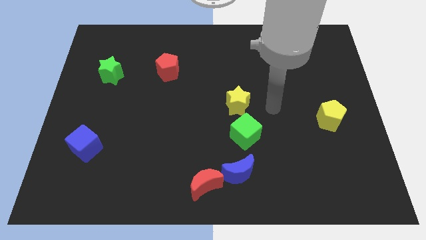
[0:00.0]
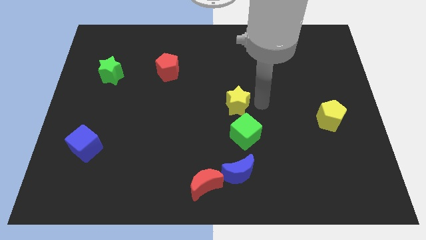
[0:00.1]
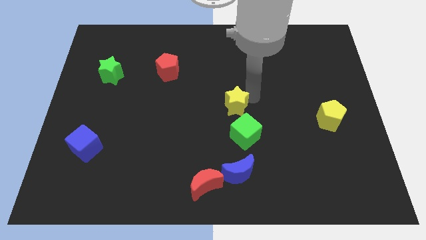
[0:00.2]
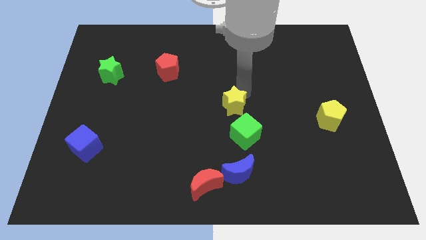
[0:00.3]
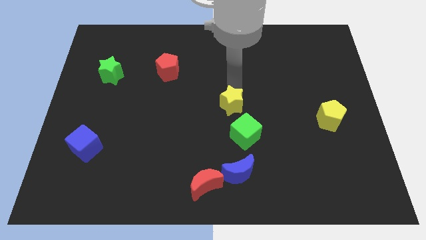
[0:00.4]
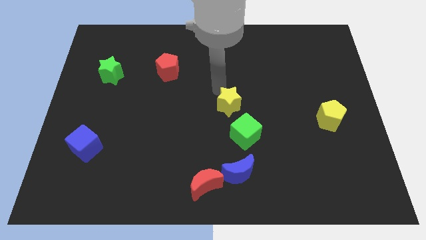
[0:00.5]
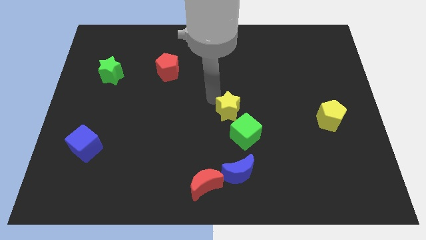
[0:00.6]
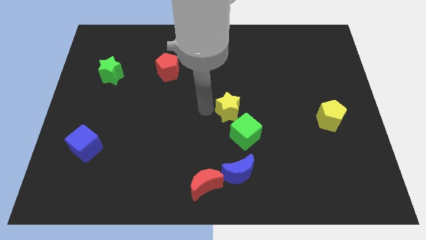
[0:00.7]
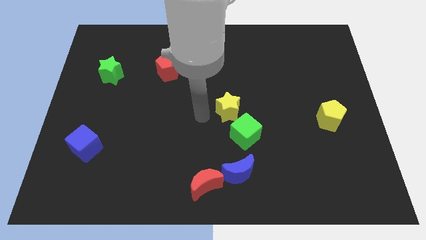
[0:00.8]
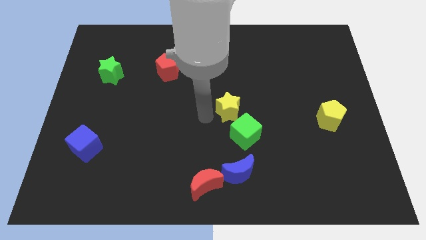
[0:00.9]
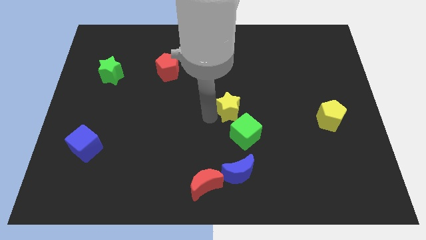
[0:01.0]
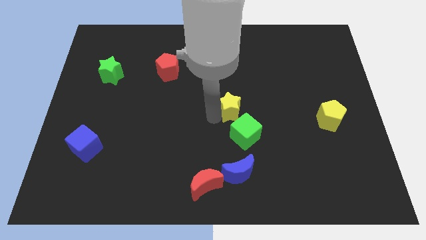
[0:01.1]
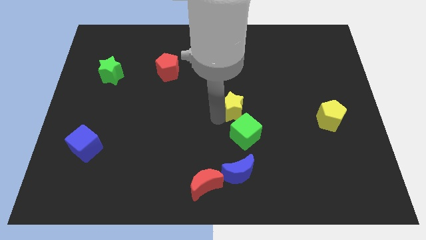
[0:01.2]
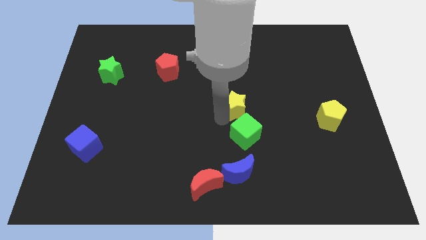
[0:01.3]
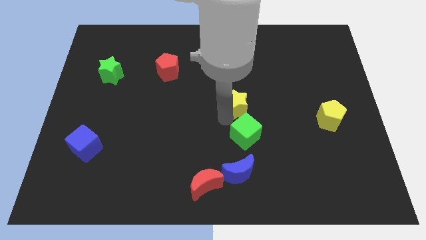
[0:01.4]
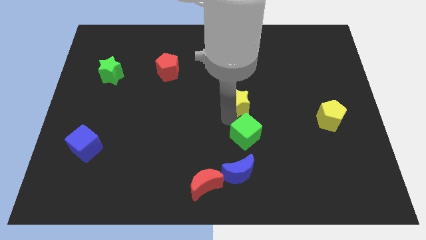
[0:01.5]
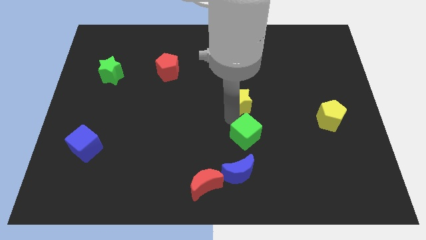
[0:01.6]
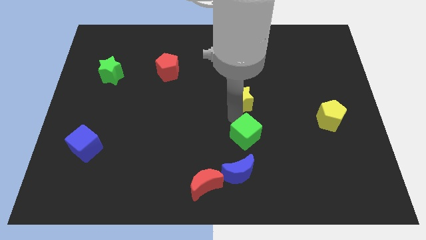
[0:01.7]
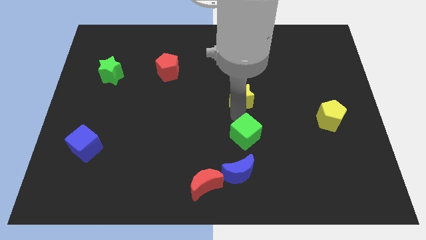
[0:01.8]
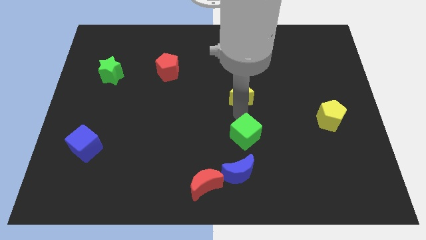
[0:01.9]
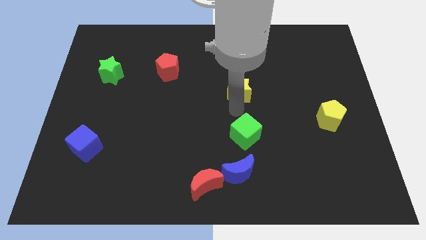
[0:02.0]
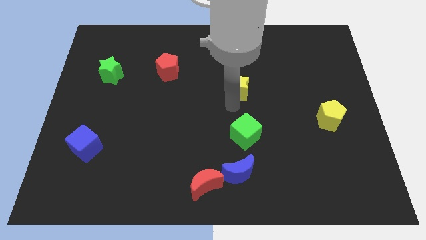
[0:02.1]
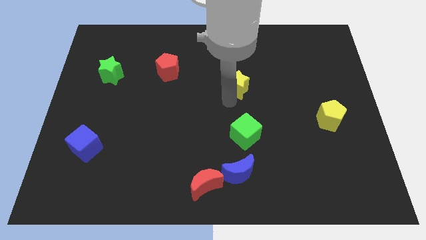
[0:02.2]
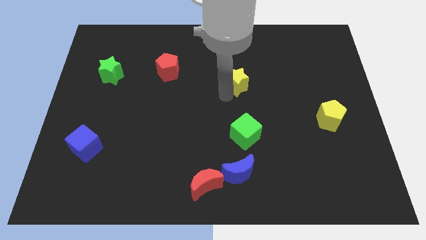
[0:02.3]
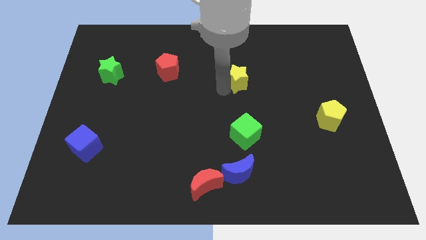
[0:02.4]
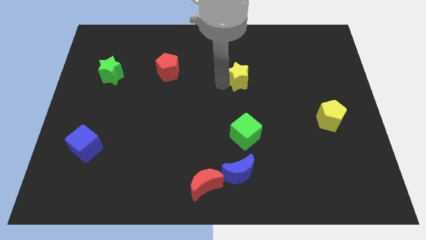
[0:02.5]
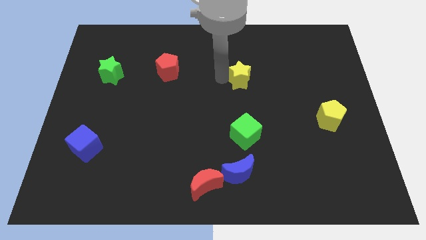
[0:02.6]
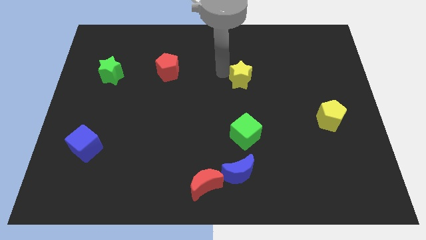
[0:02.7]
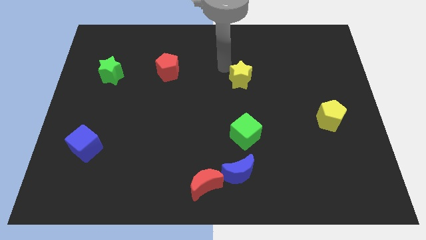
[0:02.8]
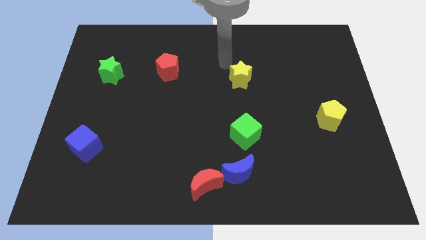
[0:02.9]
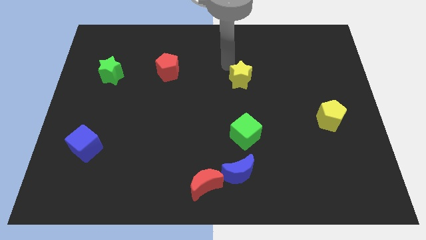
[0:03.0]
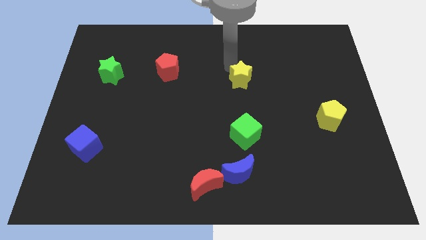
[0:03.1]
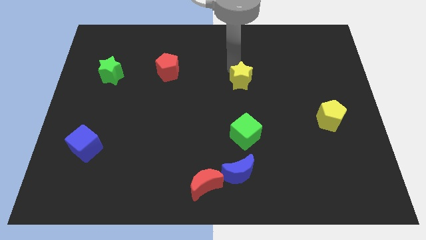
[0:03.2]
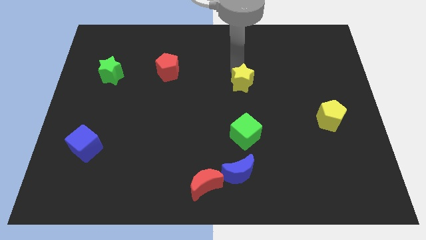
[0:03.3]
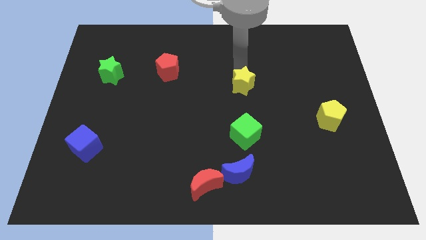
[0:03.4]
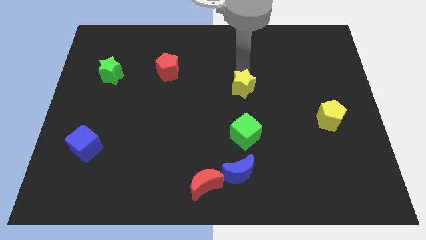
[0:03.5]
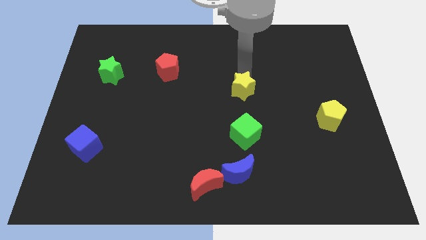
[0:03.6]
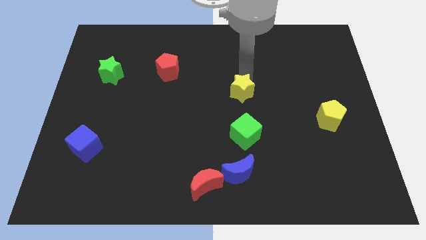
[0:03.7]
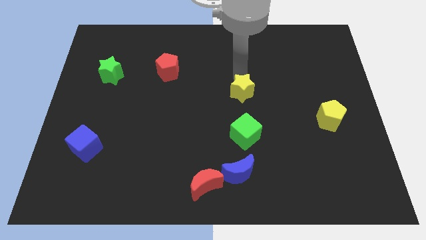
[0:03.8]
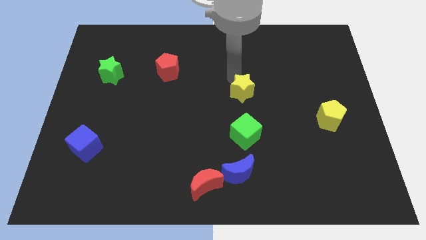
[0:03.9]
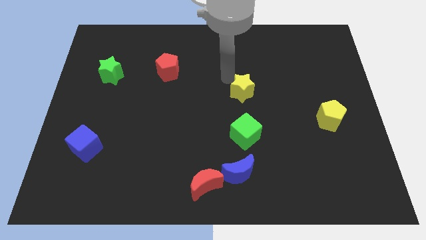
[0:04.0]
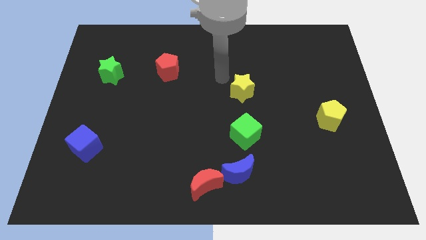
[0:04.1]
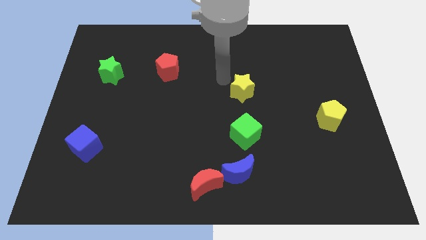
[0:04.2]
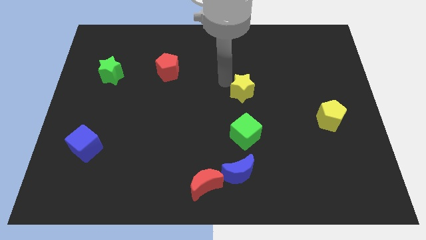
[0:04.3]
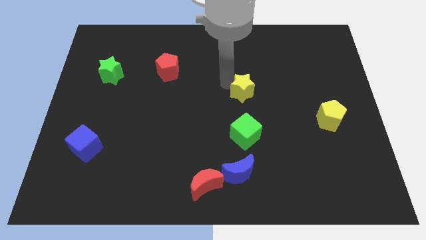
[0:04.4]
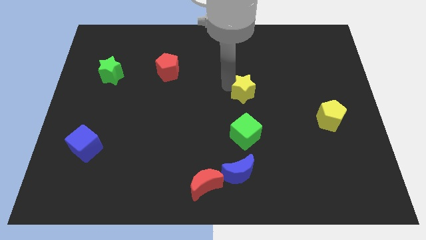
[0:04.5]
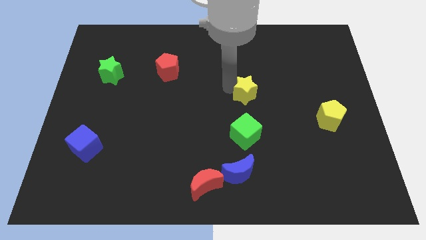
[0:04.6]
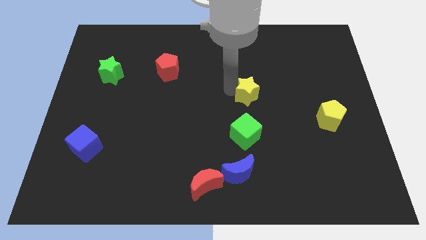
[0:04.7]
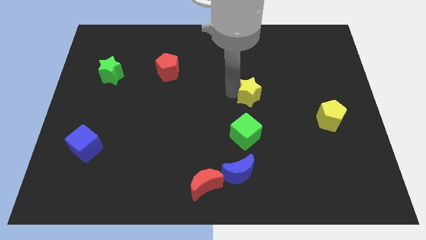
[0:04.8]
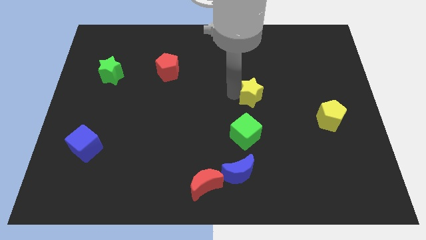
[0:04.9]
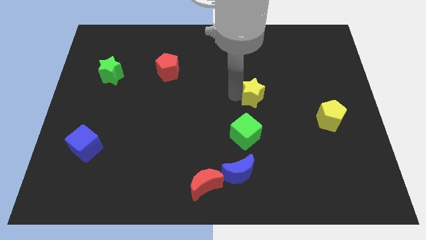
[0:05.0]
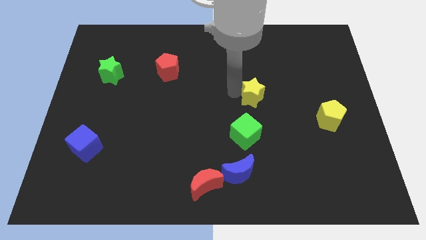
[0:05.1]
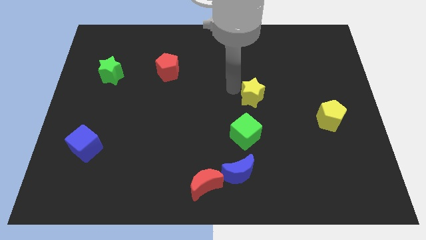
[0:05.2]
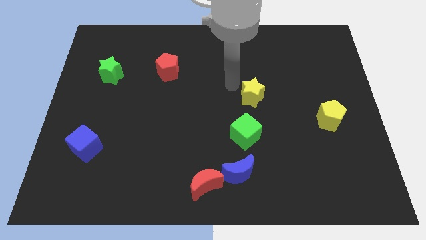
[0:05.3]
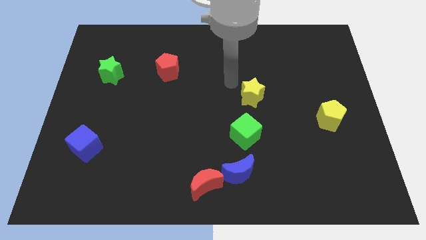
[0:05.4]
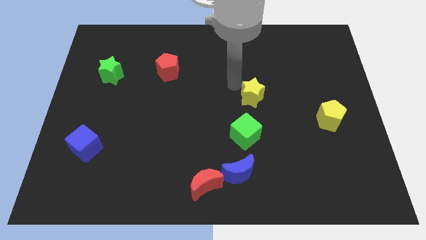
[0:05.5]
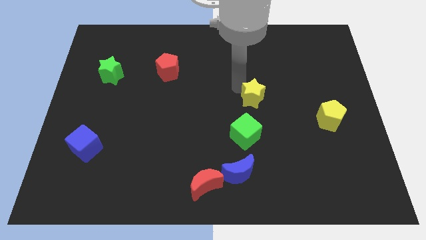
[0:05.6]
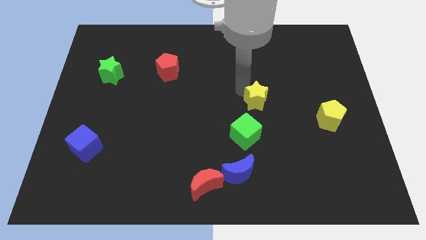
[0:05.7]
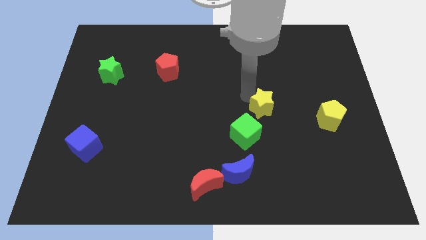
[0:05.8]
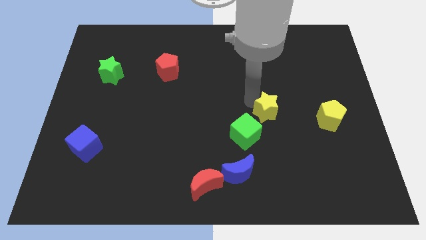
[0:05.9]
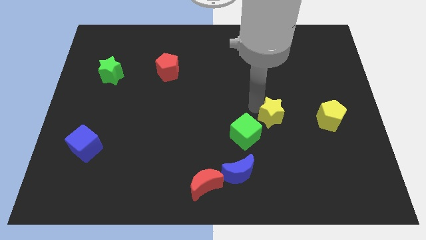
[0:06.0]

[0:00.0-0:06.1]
push the yellow star to the right slightly

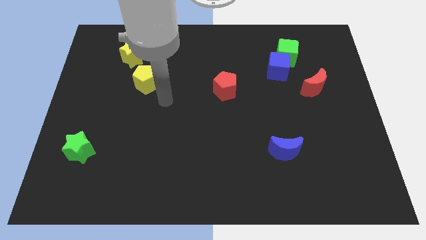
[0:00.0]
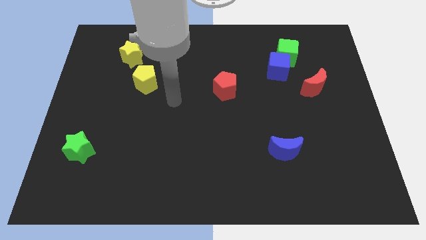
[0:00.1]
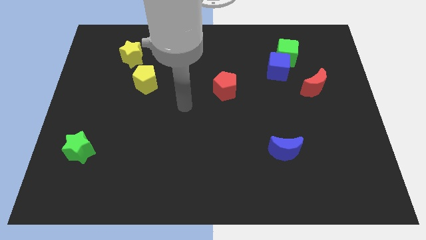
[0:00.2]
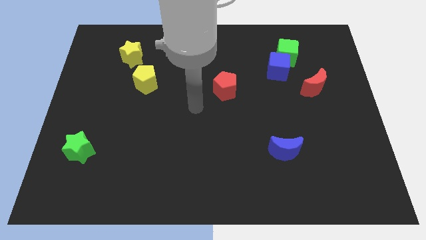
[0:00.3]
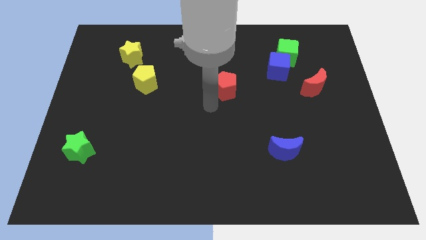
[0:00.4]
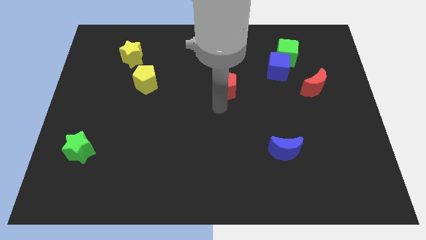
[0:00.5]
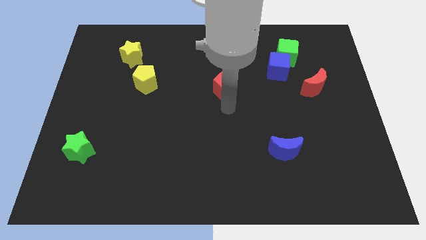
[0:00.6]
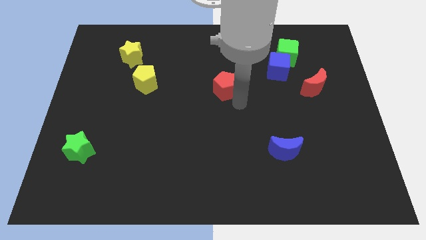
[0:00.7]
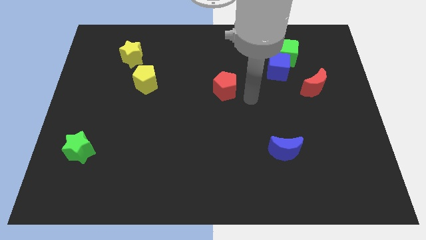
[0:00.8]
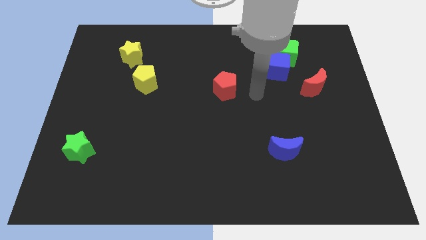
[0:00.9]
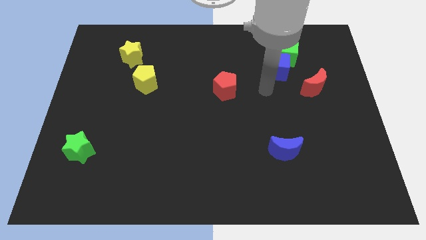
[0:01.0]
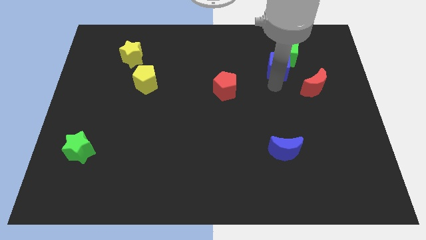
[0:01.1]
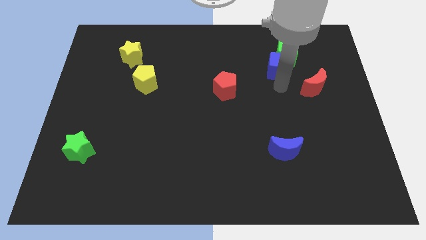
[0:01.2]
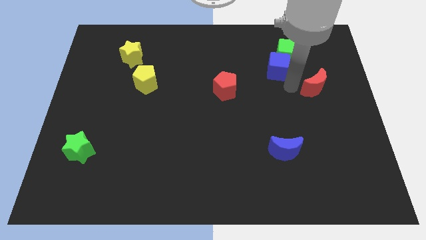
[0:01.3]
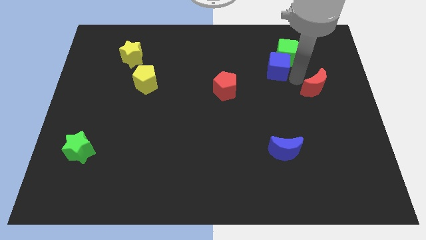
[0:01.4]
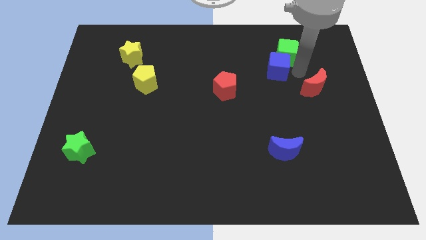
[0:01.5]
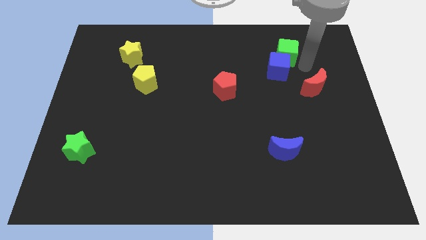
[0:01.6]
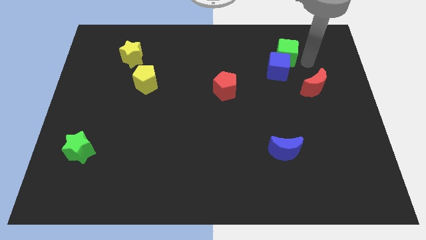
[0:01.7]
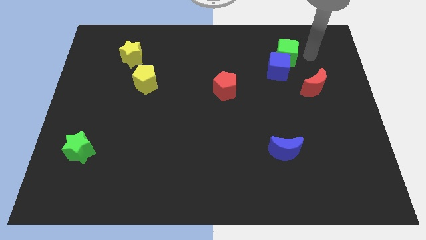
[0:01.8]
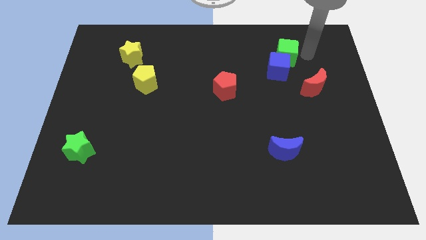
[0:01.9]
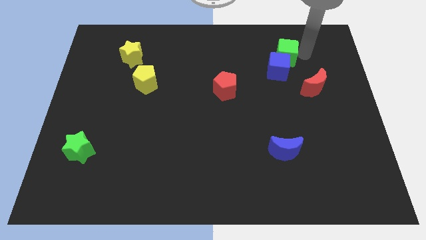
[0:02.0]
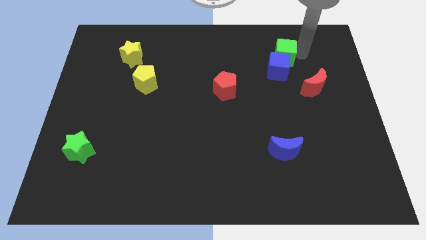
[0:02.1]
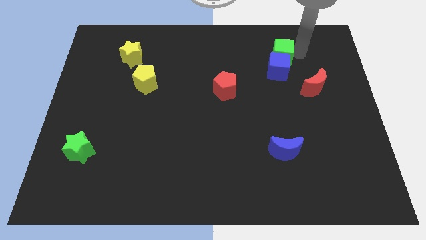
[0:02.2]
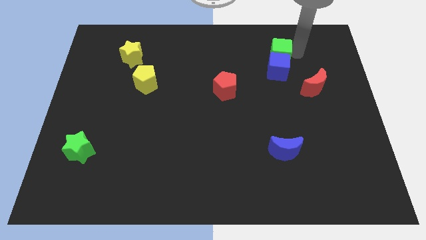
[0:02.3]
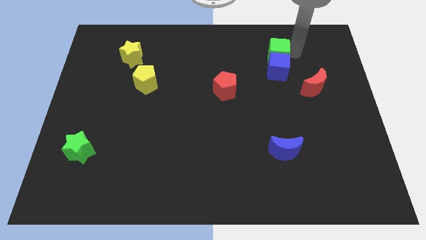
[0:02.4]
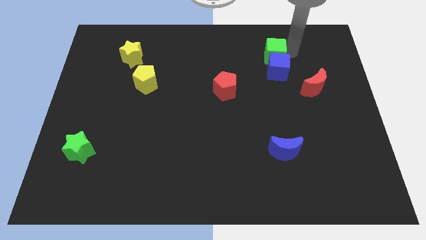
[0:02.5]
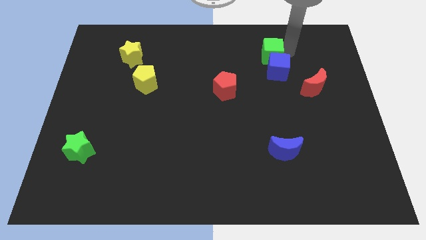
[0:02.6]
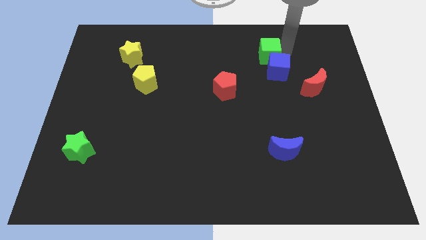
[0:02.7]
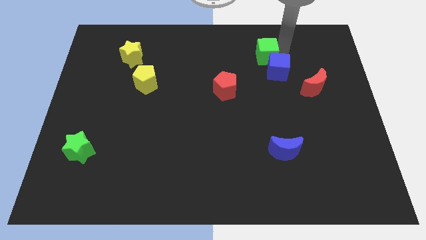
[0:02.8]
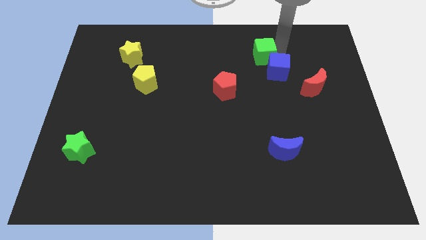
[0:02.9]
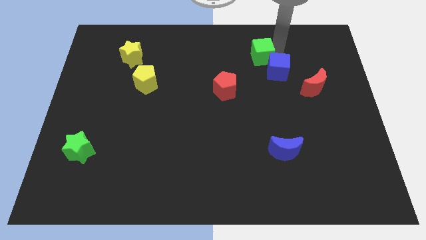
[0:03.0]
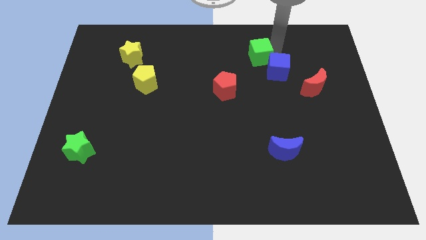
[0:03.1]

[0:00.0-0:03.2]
move the green cube to the left a bit
